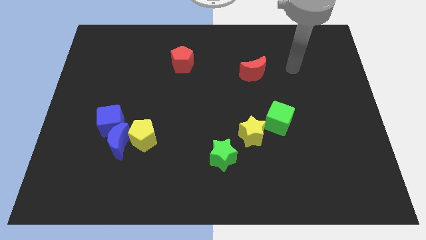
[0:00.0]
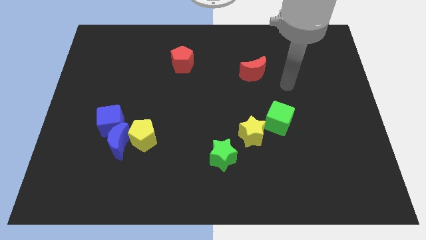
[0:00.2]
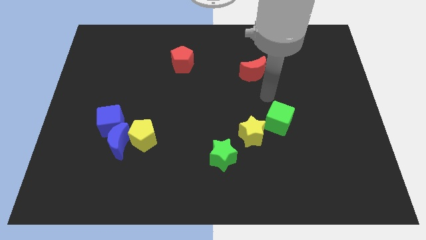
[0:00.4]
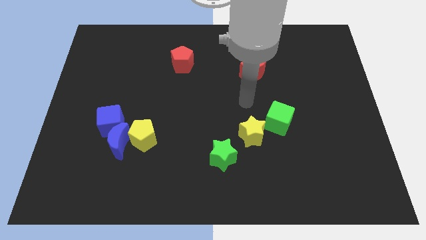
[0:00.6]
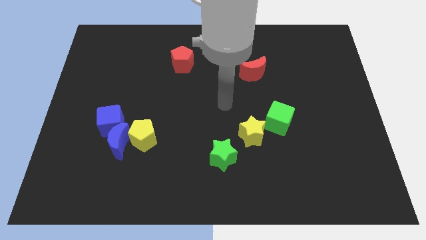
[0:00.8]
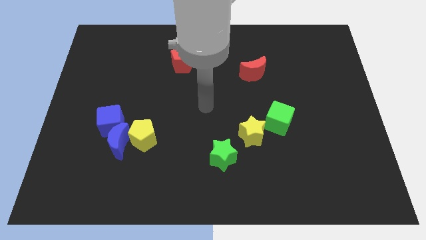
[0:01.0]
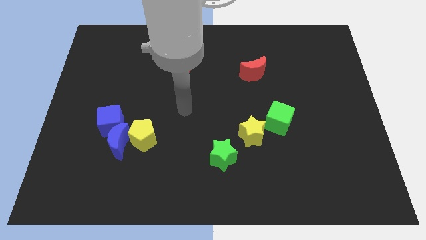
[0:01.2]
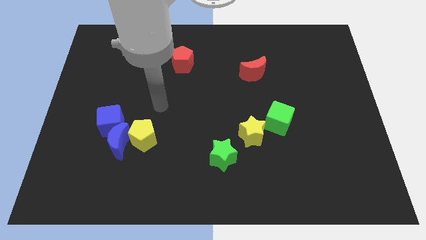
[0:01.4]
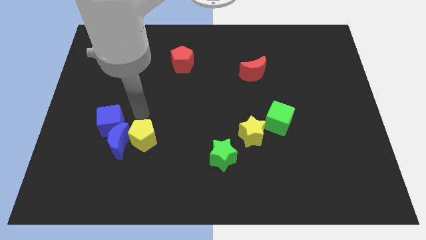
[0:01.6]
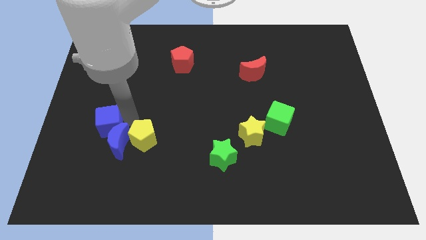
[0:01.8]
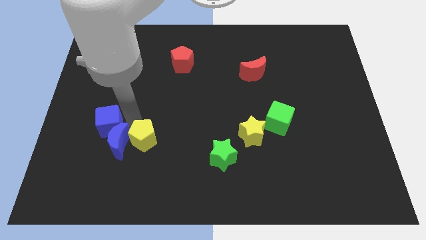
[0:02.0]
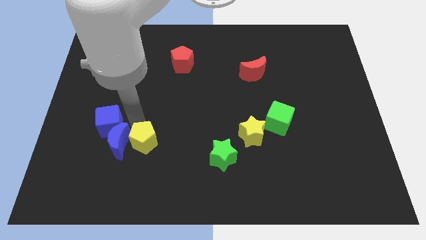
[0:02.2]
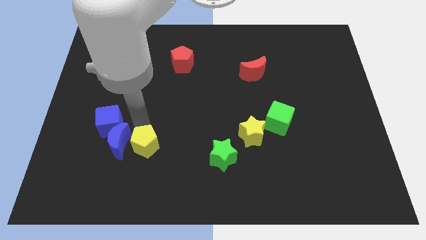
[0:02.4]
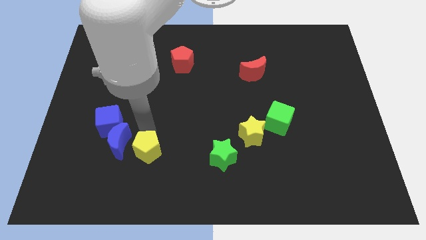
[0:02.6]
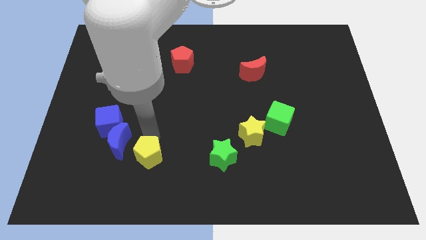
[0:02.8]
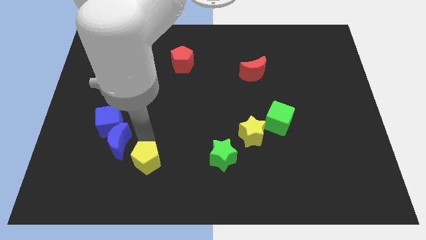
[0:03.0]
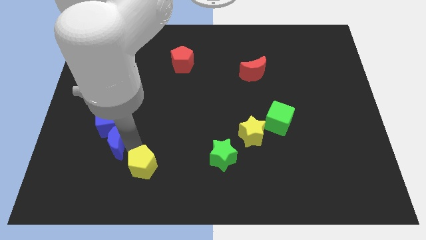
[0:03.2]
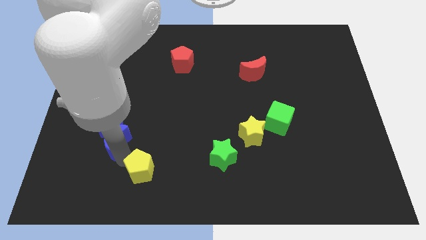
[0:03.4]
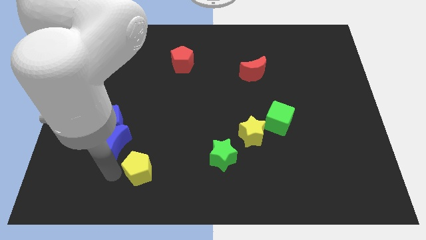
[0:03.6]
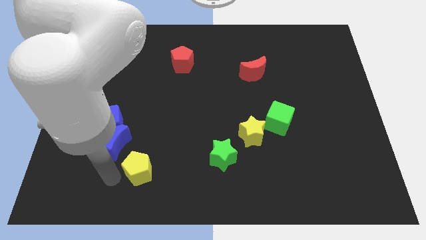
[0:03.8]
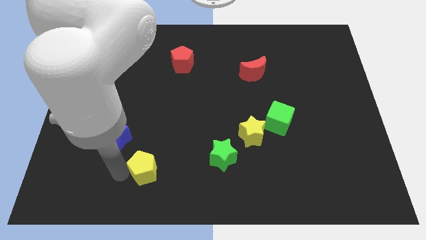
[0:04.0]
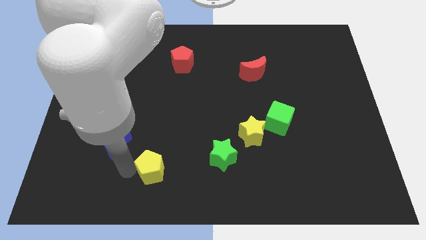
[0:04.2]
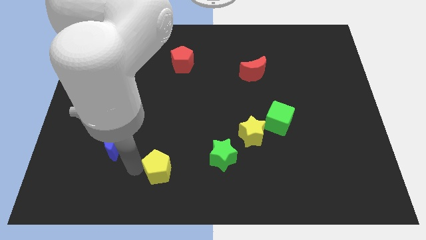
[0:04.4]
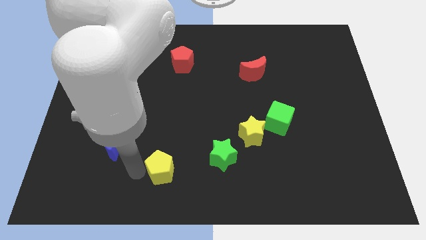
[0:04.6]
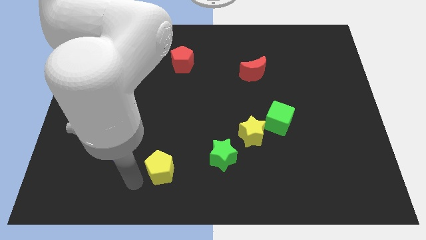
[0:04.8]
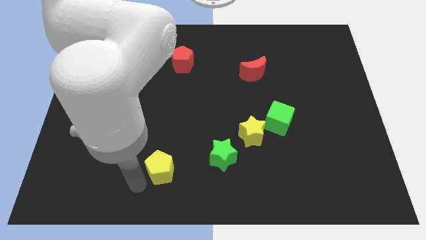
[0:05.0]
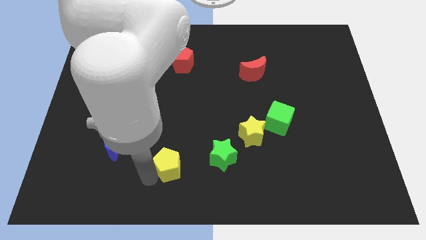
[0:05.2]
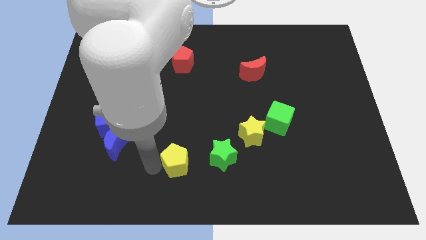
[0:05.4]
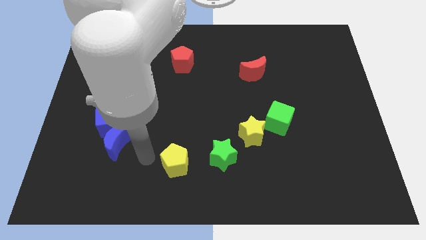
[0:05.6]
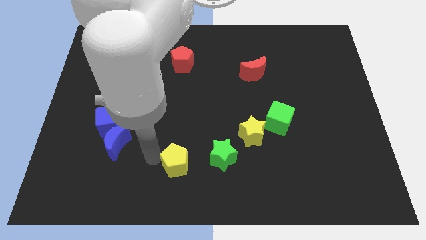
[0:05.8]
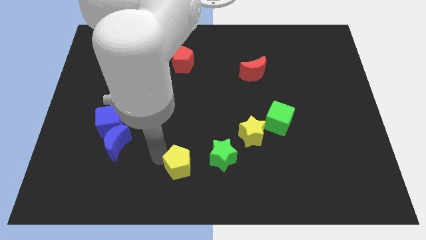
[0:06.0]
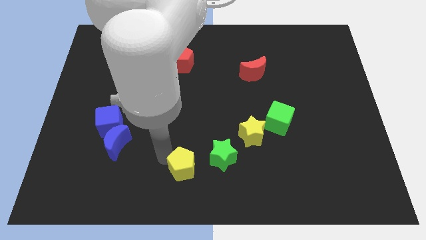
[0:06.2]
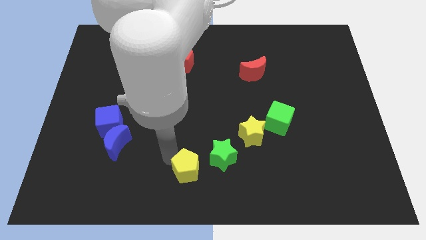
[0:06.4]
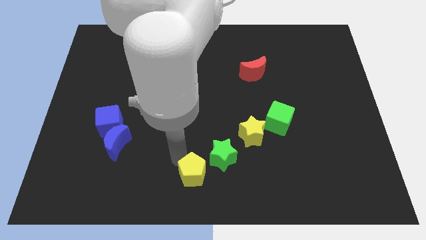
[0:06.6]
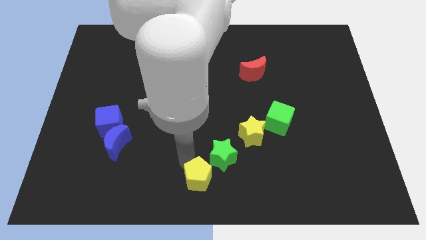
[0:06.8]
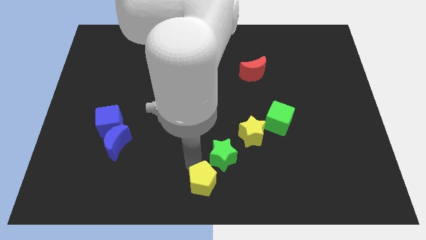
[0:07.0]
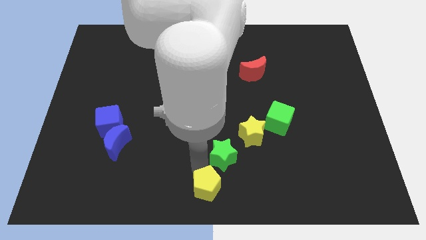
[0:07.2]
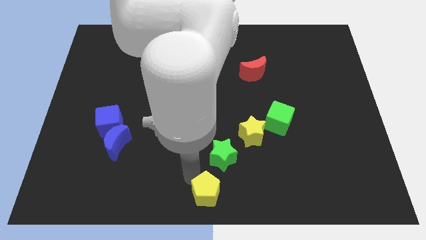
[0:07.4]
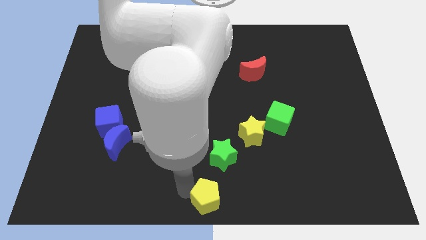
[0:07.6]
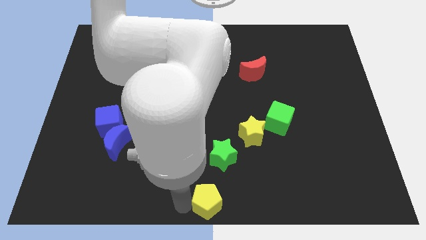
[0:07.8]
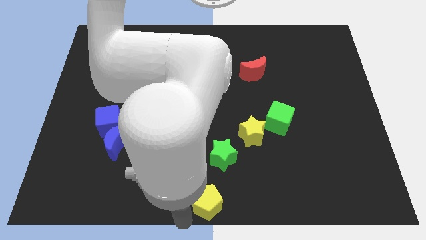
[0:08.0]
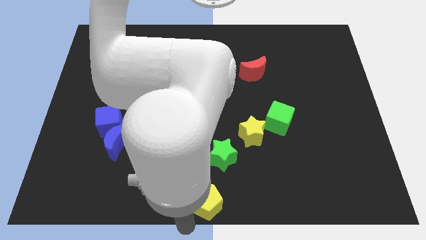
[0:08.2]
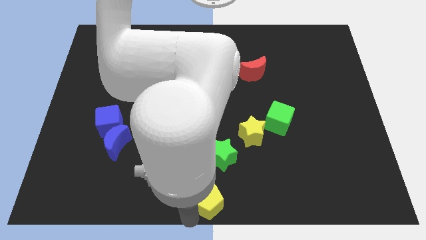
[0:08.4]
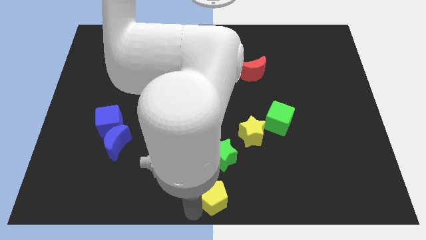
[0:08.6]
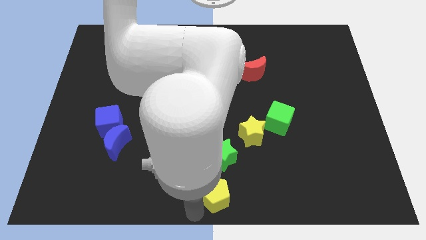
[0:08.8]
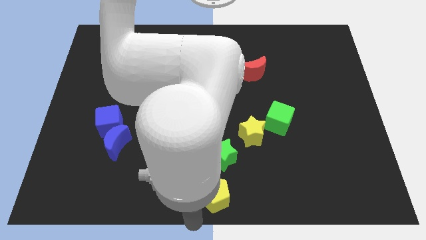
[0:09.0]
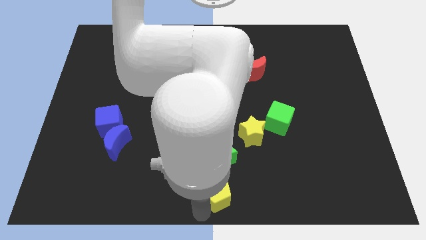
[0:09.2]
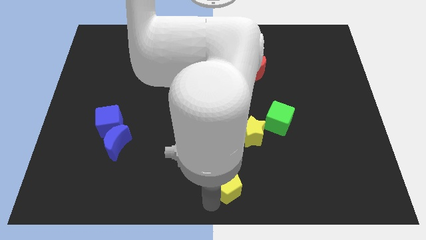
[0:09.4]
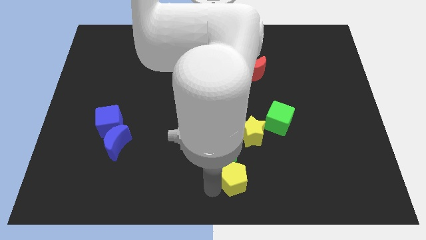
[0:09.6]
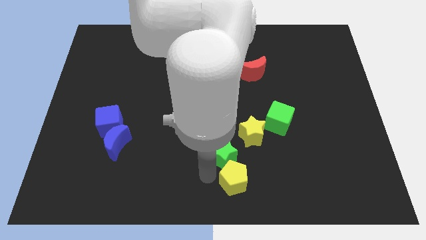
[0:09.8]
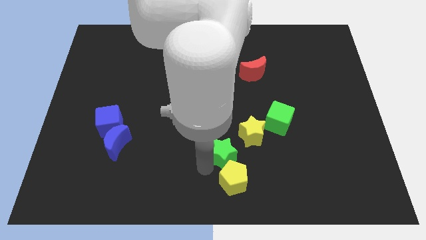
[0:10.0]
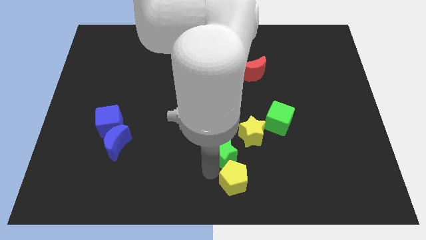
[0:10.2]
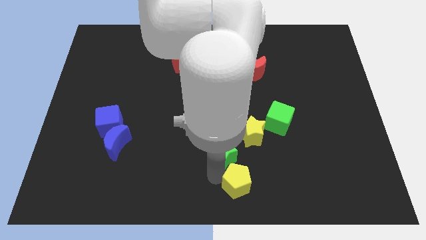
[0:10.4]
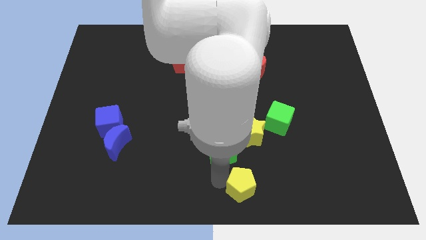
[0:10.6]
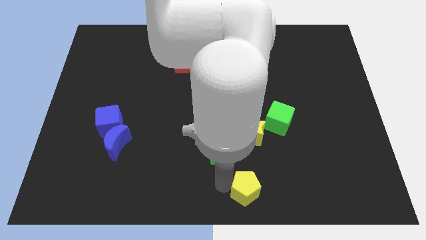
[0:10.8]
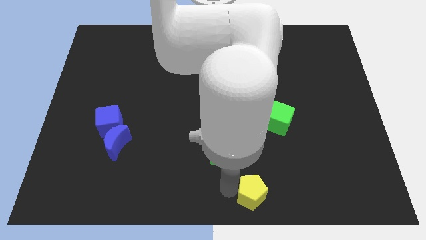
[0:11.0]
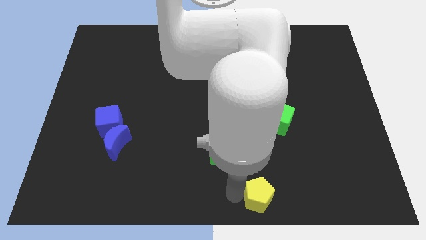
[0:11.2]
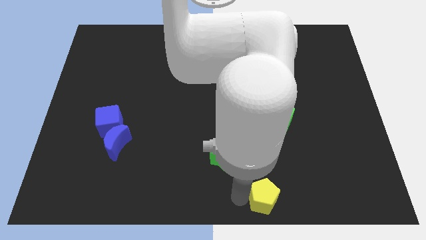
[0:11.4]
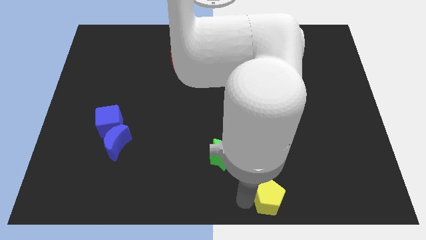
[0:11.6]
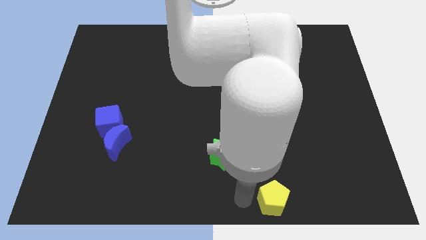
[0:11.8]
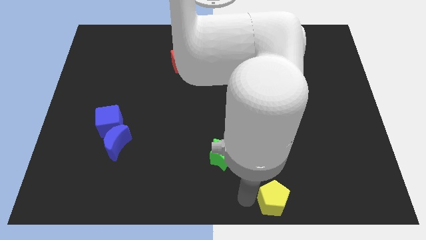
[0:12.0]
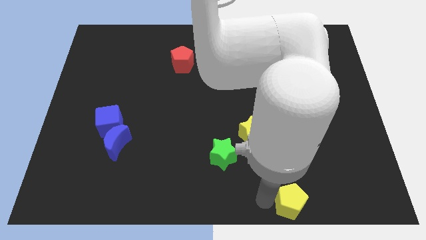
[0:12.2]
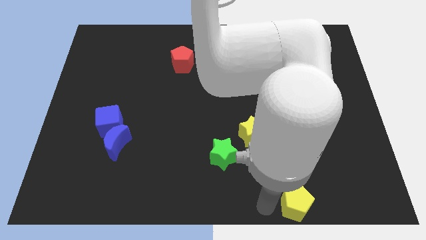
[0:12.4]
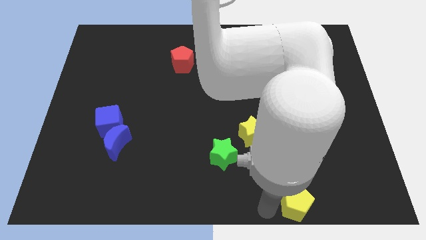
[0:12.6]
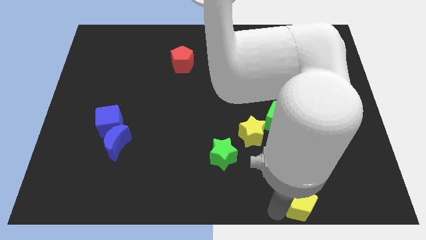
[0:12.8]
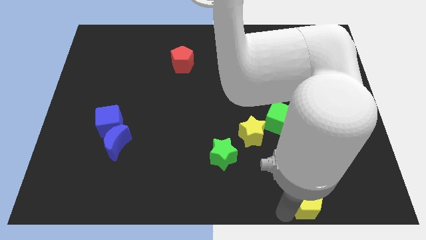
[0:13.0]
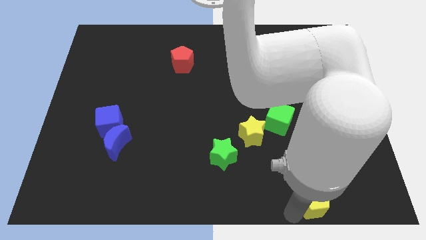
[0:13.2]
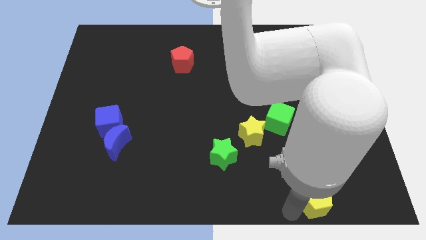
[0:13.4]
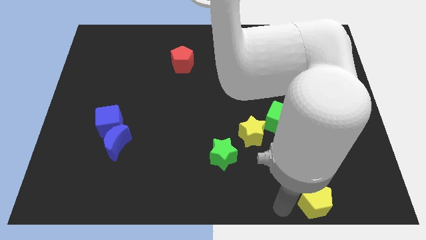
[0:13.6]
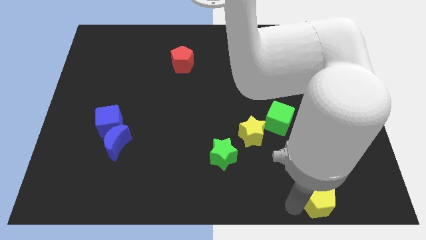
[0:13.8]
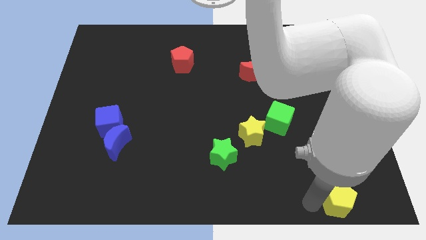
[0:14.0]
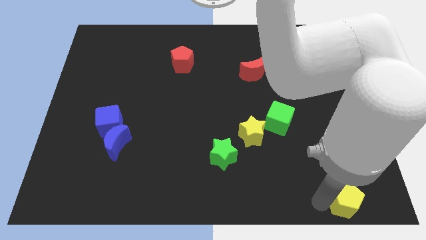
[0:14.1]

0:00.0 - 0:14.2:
slide the yellow pentagon to the bottom right corner
